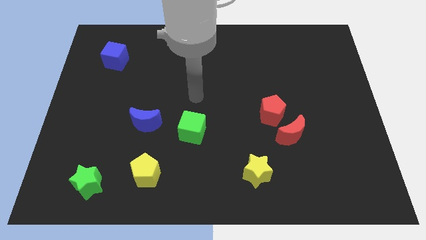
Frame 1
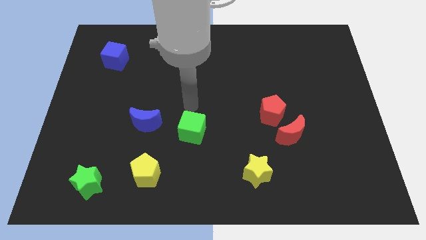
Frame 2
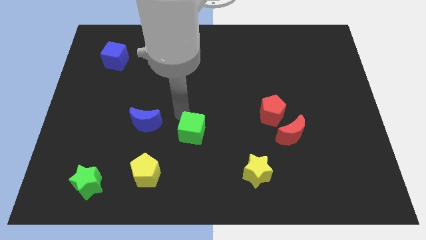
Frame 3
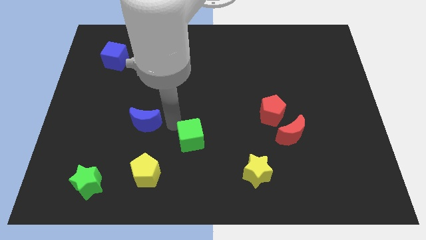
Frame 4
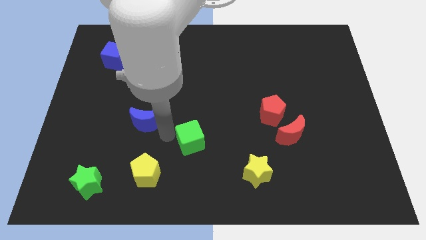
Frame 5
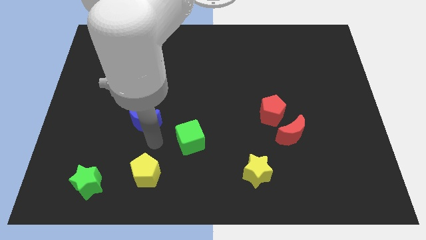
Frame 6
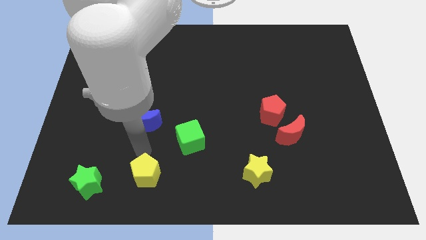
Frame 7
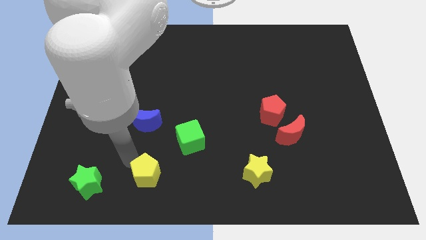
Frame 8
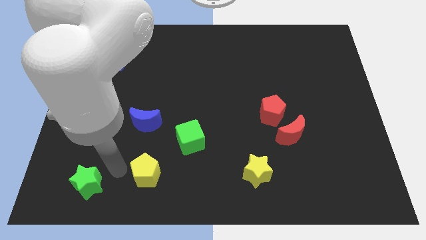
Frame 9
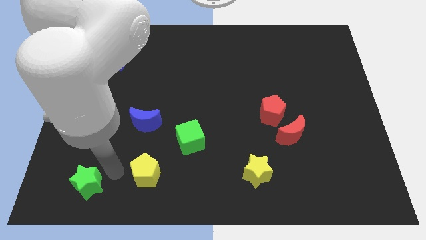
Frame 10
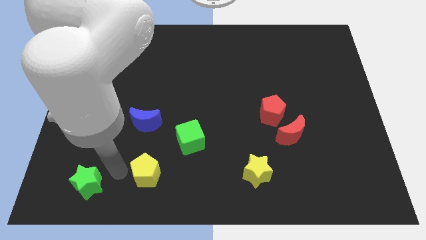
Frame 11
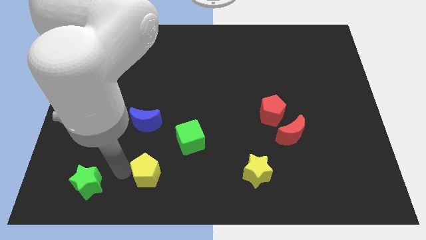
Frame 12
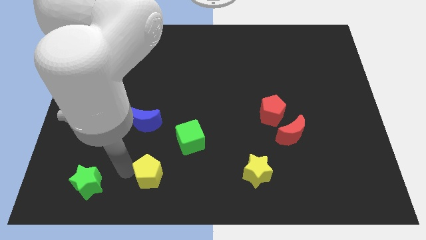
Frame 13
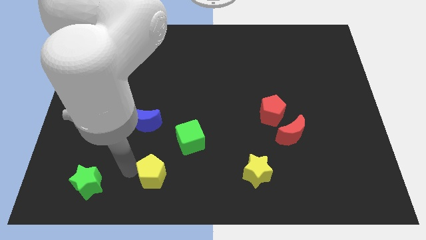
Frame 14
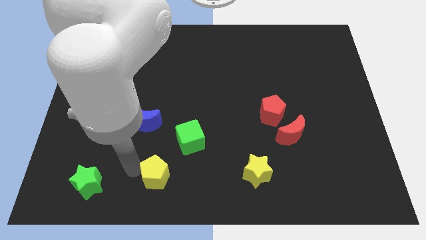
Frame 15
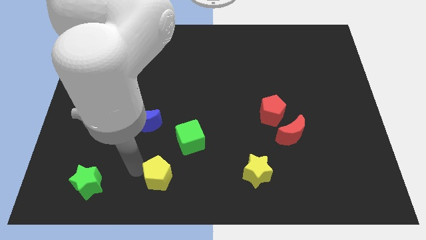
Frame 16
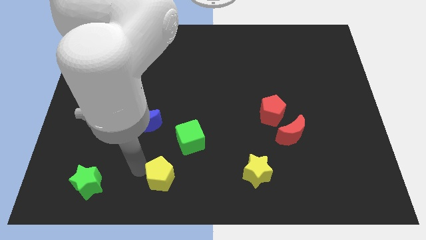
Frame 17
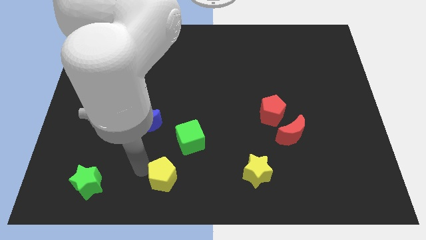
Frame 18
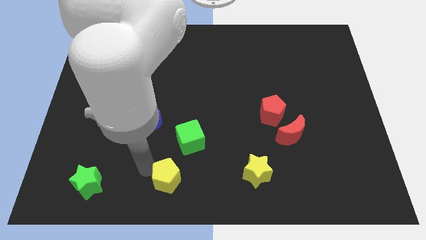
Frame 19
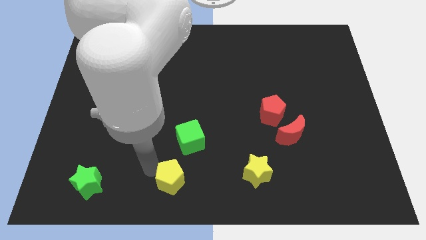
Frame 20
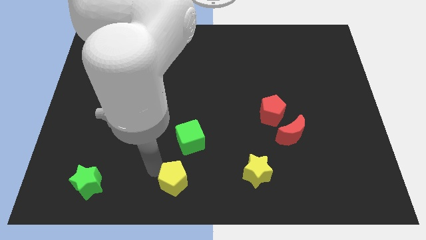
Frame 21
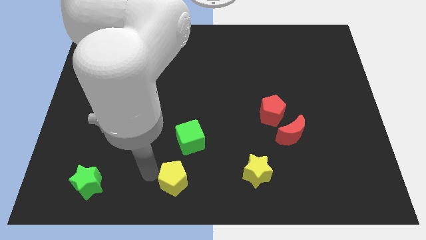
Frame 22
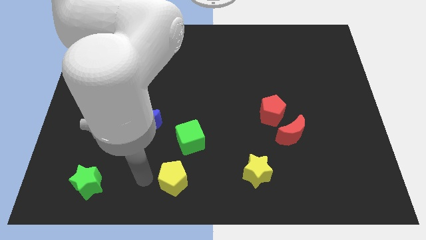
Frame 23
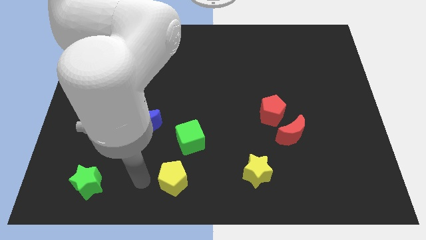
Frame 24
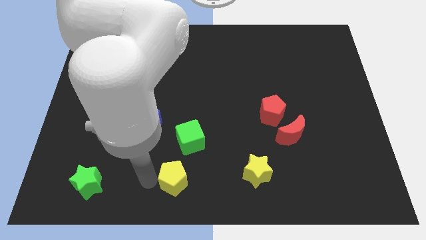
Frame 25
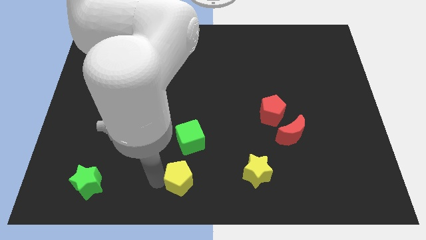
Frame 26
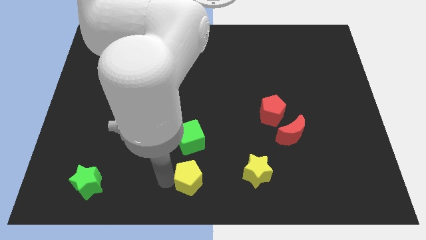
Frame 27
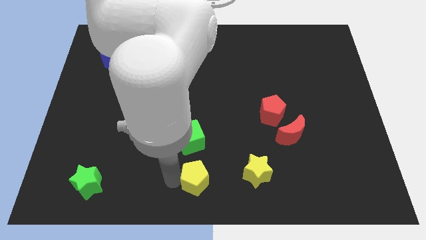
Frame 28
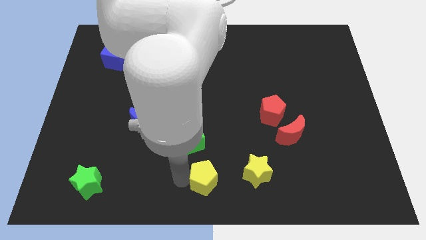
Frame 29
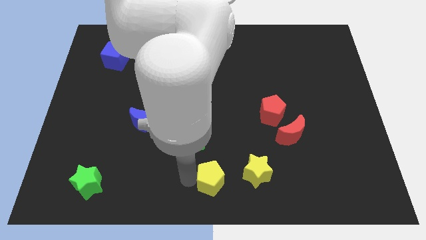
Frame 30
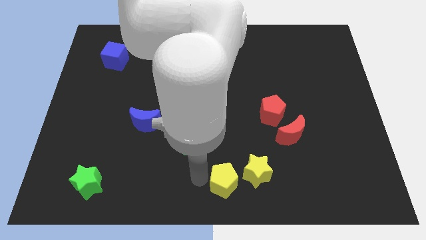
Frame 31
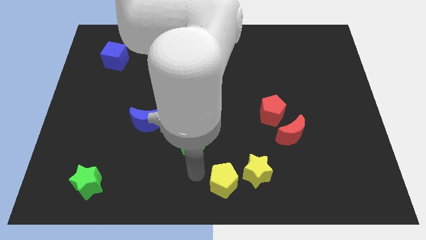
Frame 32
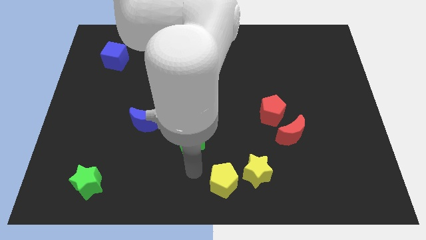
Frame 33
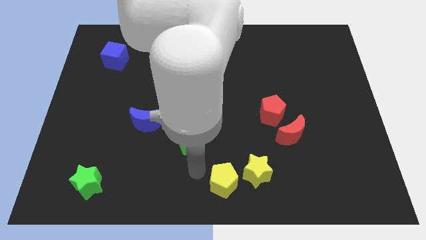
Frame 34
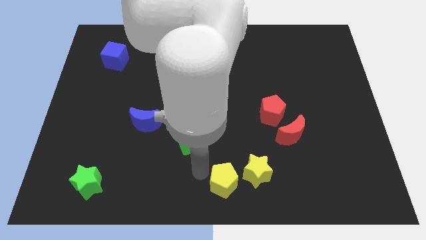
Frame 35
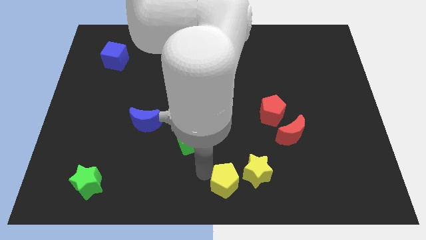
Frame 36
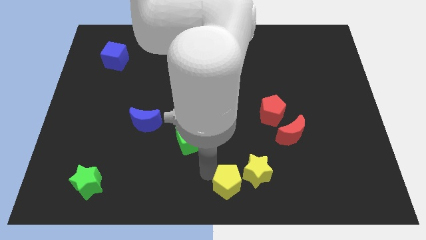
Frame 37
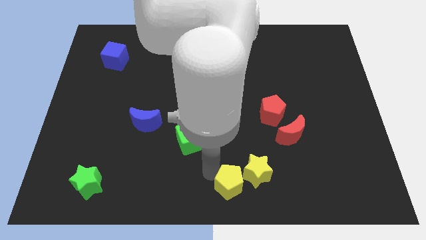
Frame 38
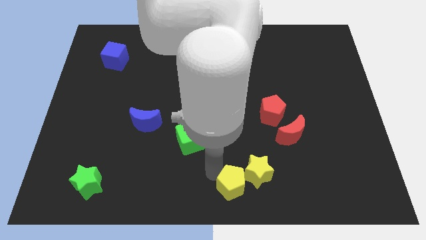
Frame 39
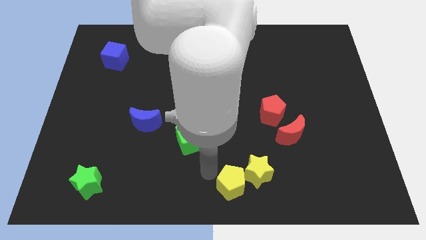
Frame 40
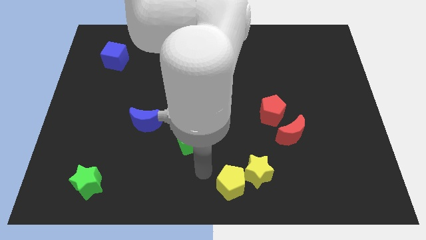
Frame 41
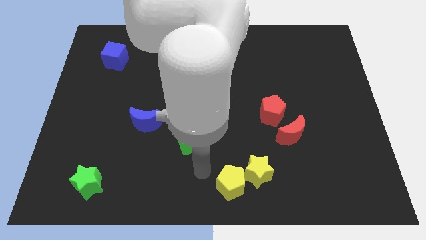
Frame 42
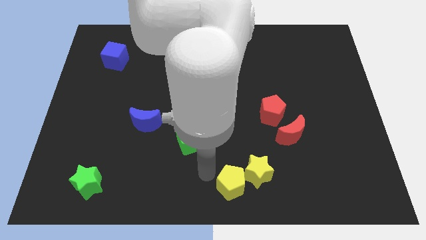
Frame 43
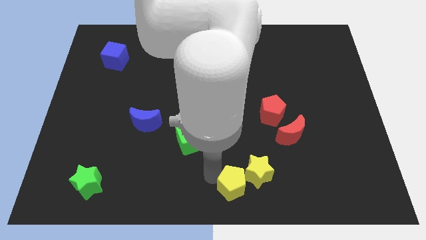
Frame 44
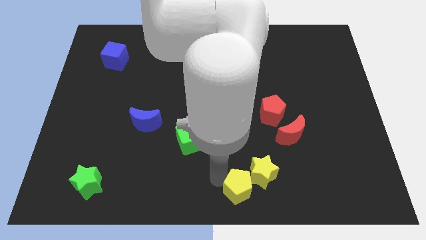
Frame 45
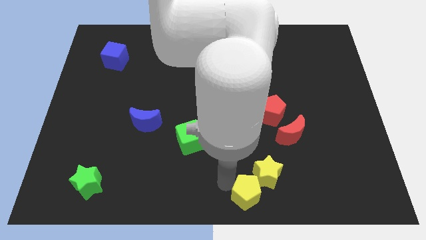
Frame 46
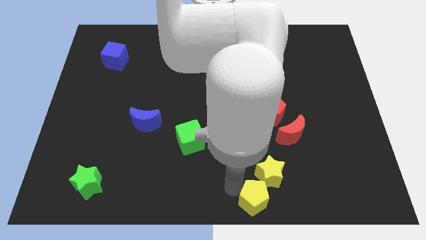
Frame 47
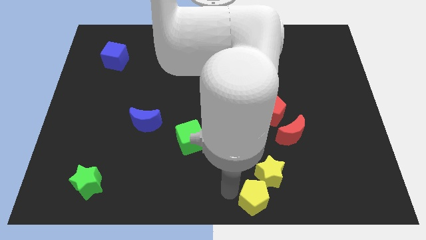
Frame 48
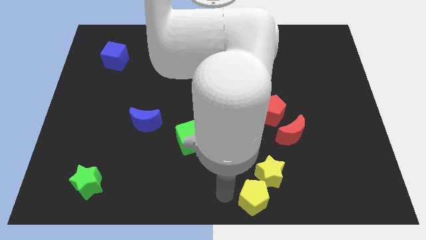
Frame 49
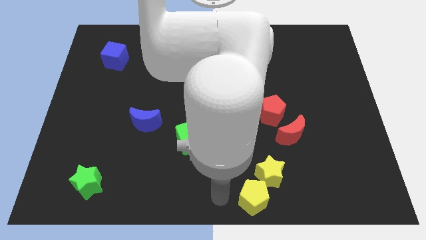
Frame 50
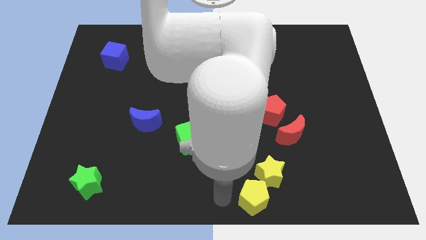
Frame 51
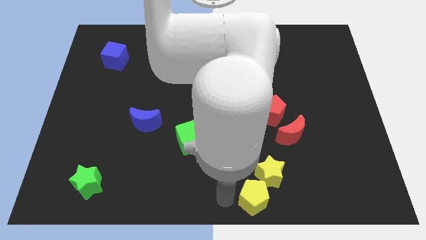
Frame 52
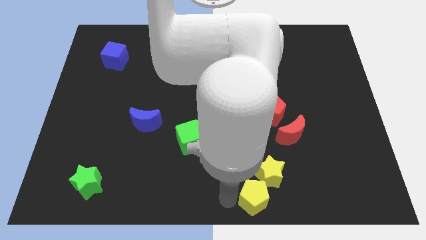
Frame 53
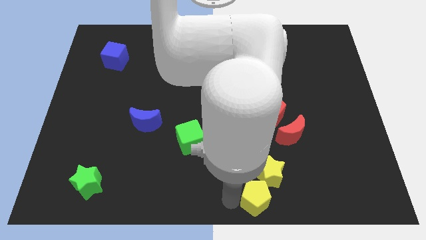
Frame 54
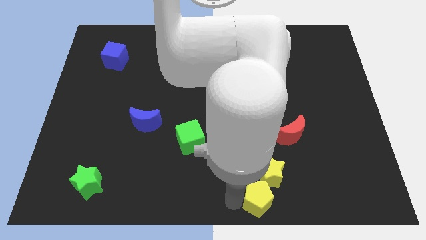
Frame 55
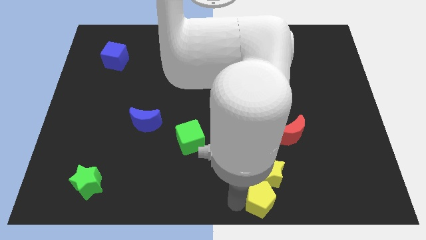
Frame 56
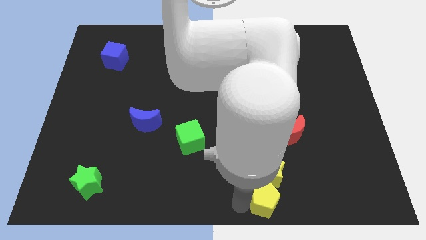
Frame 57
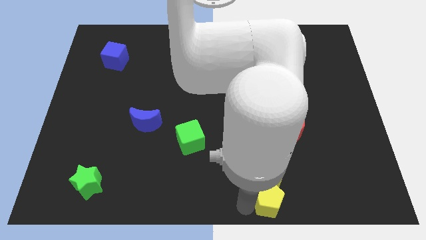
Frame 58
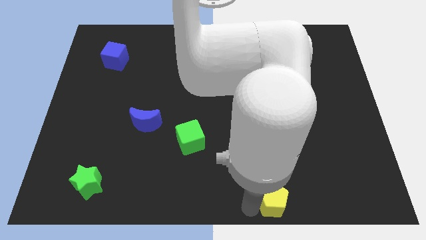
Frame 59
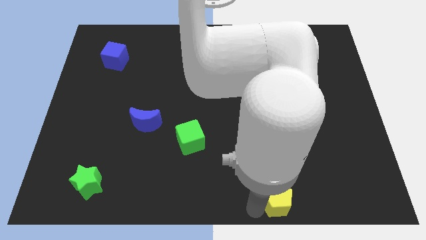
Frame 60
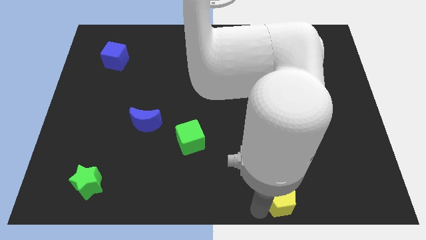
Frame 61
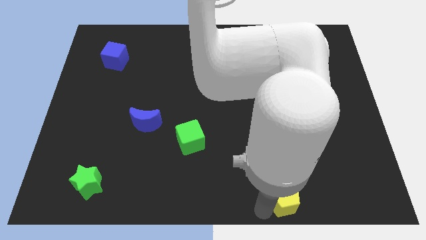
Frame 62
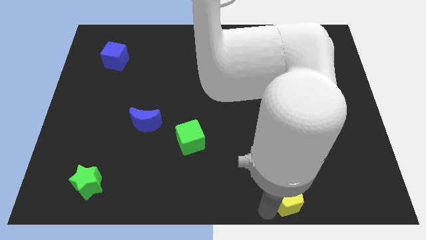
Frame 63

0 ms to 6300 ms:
move the yellow pentagon to the bottom of the red moon

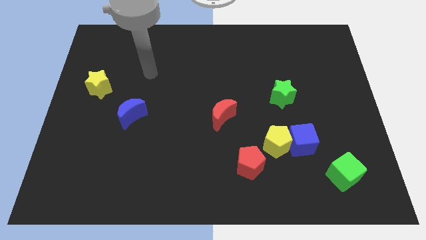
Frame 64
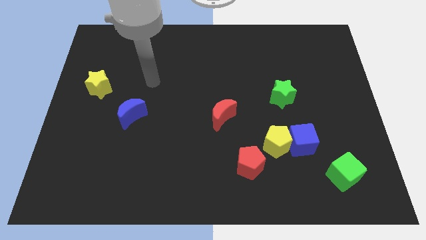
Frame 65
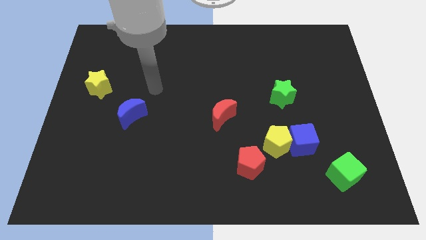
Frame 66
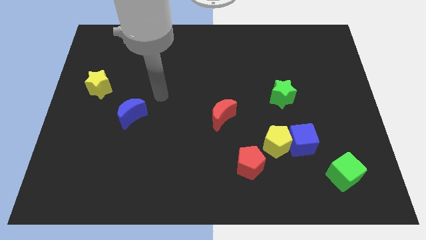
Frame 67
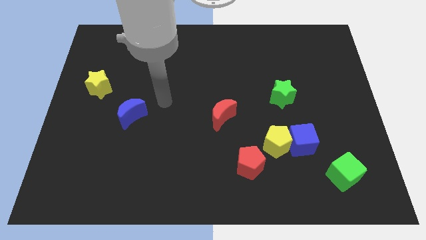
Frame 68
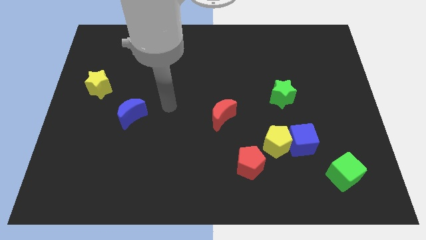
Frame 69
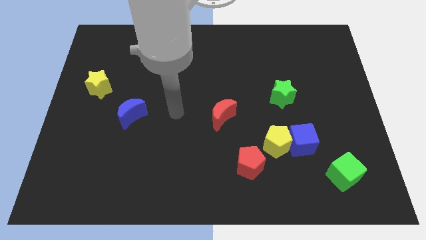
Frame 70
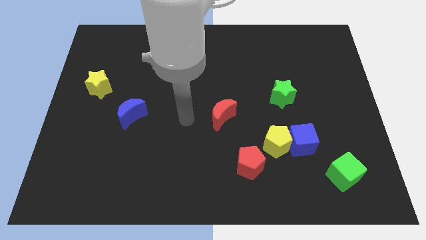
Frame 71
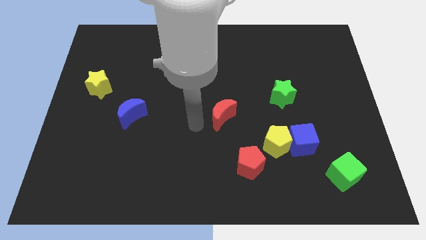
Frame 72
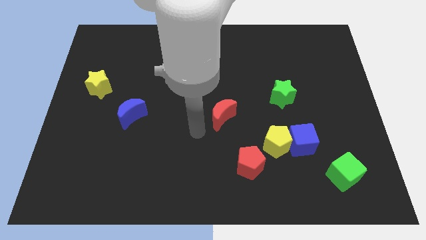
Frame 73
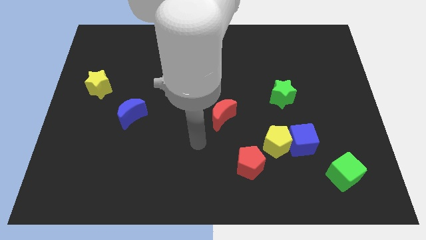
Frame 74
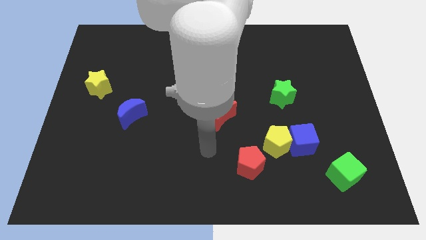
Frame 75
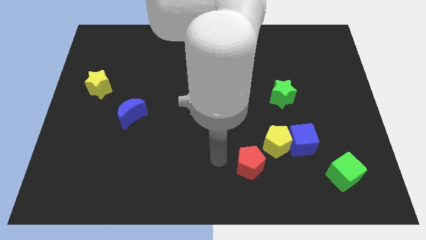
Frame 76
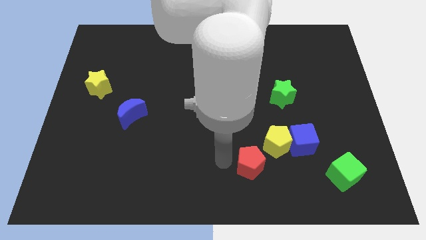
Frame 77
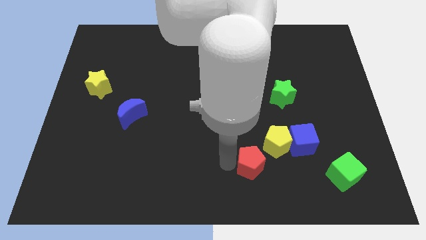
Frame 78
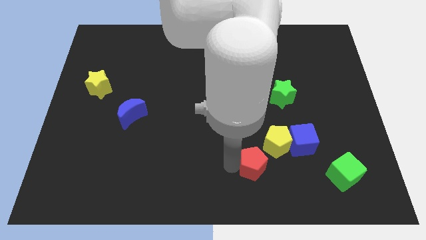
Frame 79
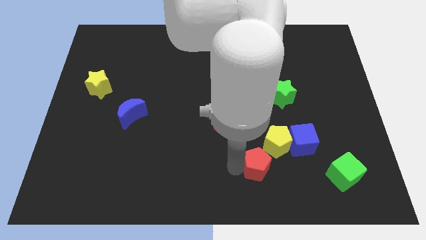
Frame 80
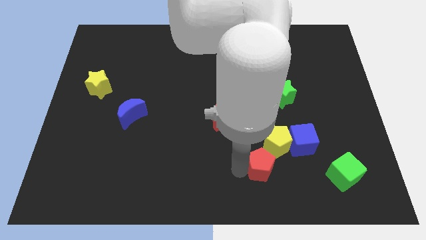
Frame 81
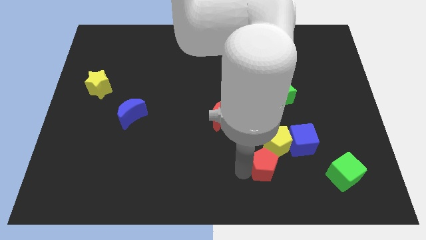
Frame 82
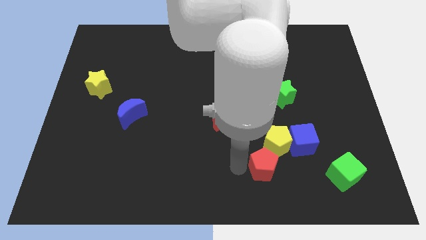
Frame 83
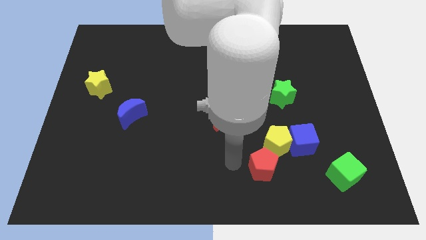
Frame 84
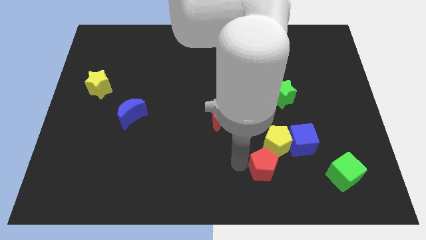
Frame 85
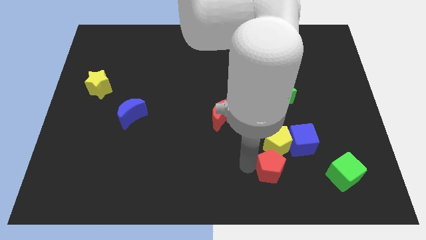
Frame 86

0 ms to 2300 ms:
move the red pentagon to the left of the green cube
